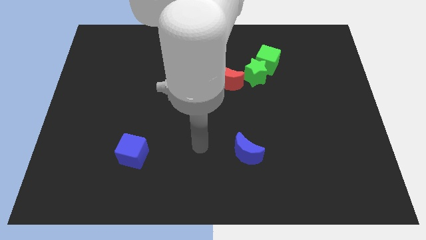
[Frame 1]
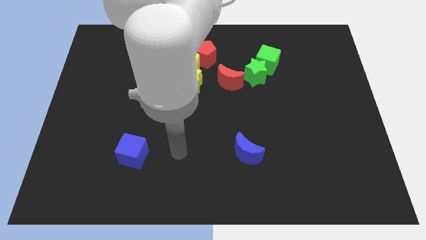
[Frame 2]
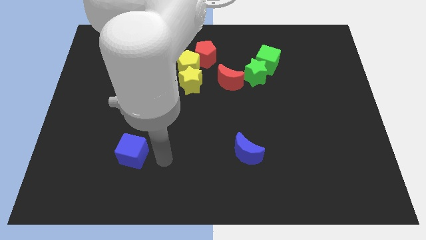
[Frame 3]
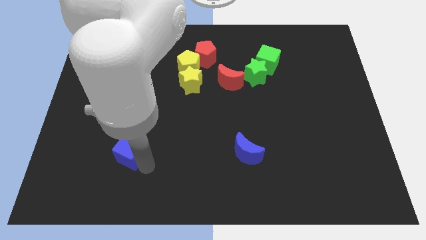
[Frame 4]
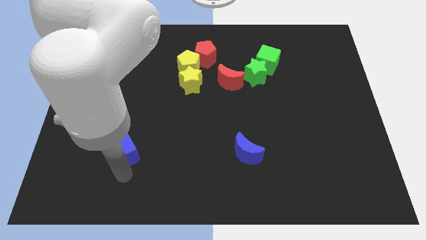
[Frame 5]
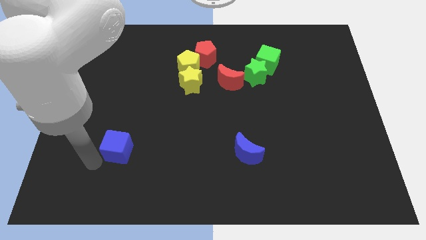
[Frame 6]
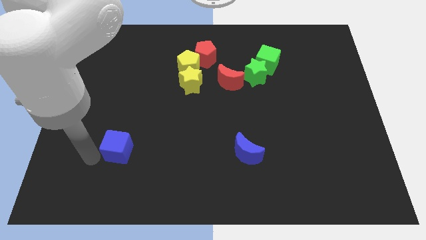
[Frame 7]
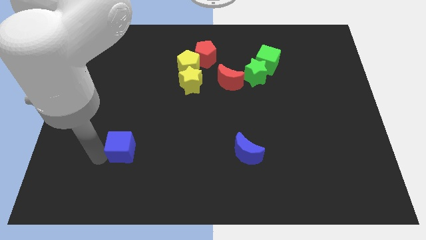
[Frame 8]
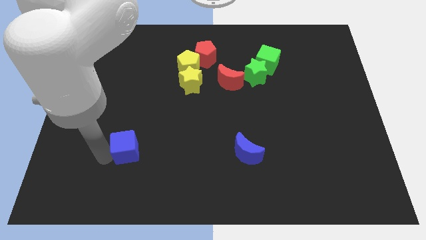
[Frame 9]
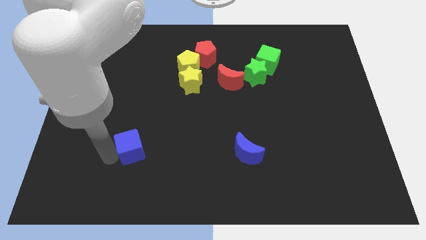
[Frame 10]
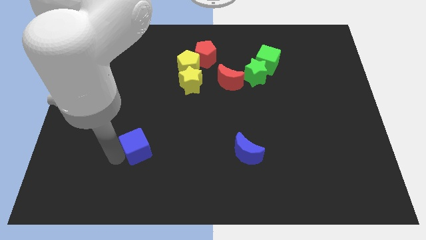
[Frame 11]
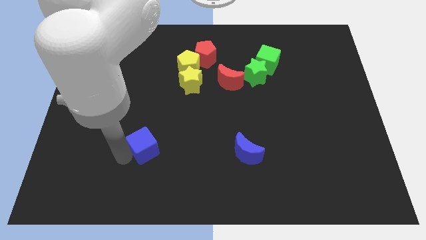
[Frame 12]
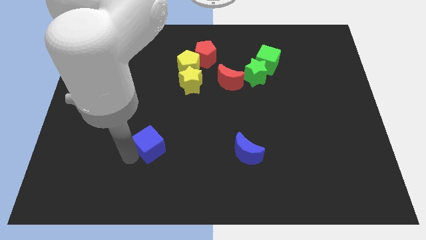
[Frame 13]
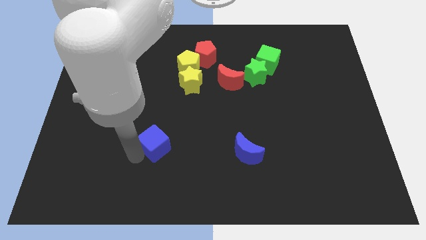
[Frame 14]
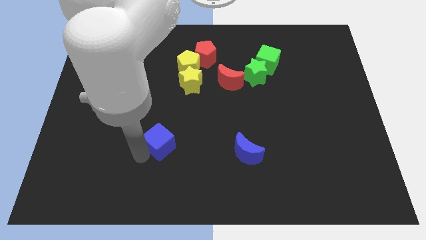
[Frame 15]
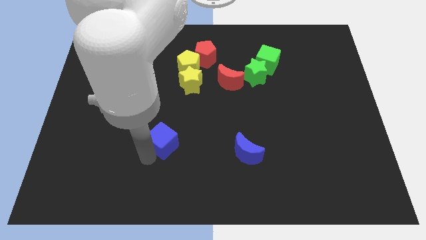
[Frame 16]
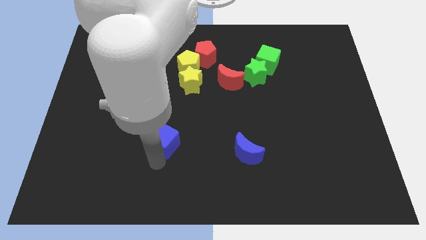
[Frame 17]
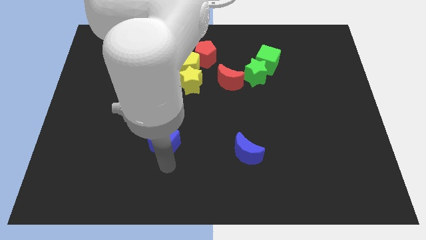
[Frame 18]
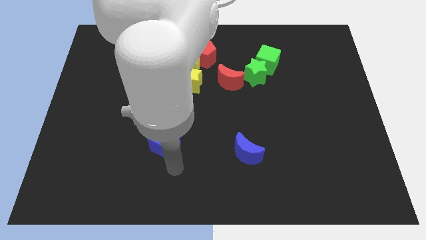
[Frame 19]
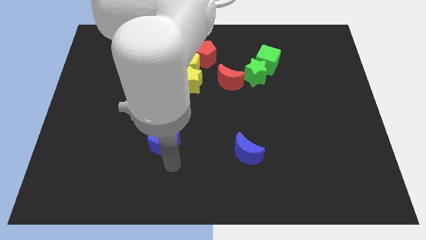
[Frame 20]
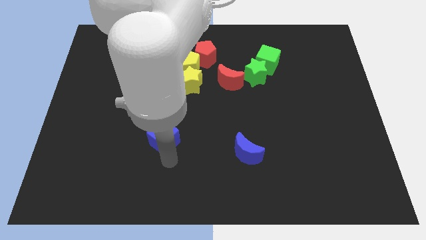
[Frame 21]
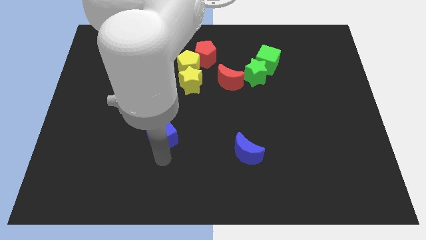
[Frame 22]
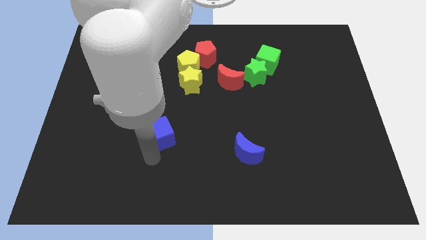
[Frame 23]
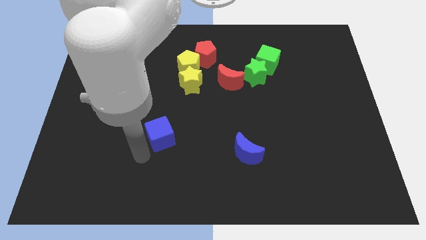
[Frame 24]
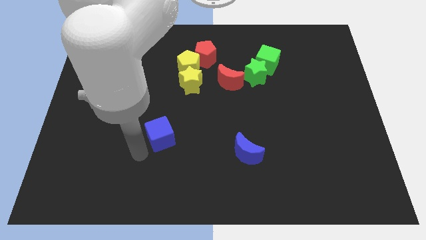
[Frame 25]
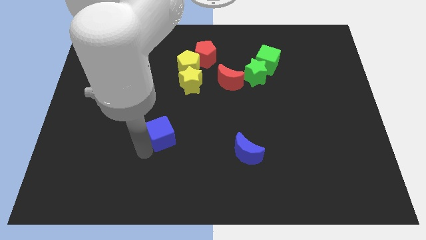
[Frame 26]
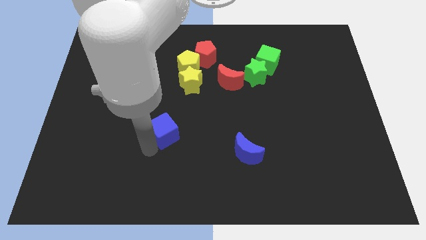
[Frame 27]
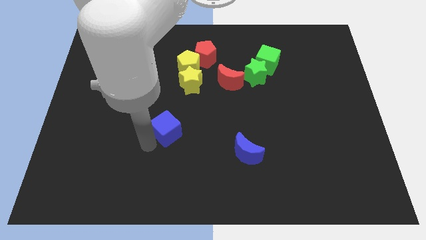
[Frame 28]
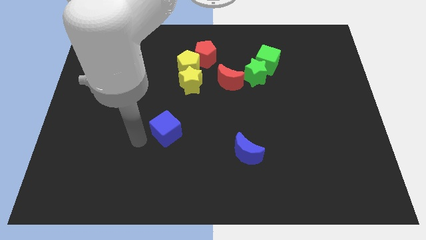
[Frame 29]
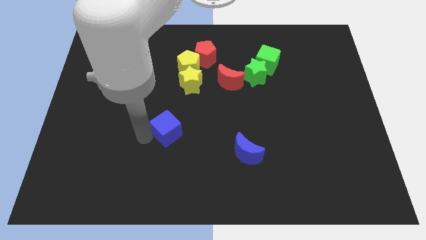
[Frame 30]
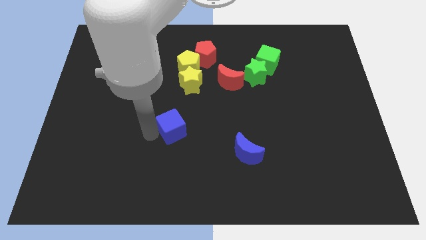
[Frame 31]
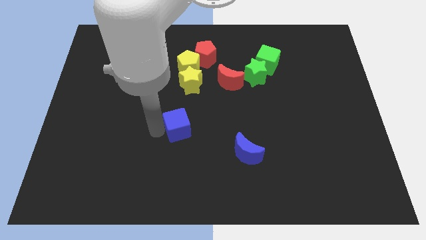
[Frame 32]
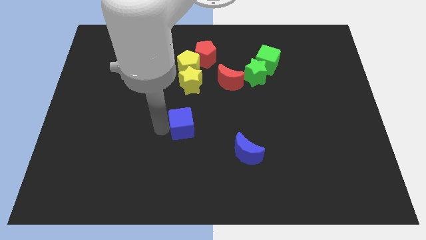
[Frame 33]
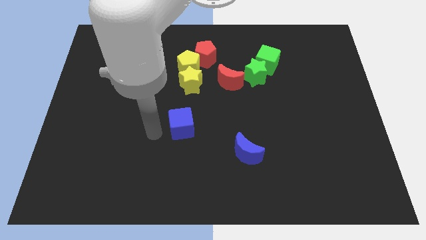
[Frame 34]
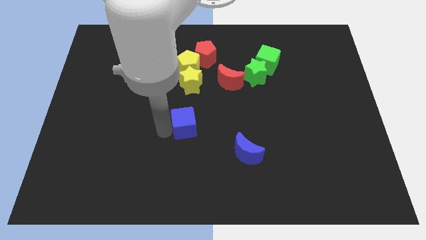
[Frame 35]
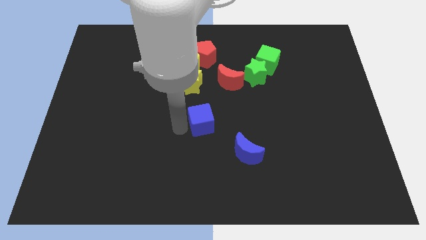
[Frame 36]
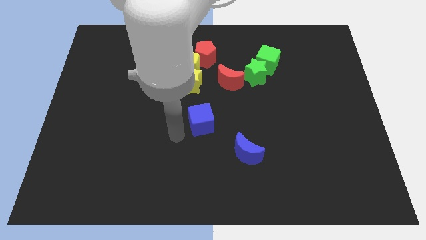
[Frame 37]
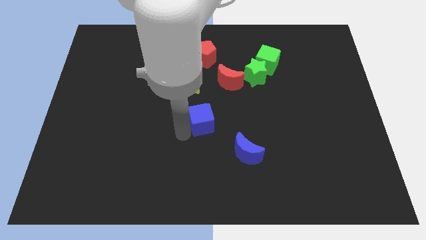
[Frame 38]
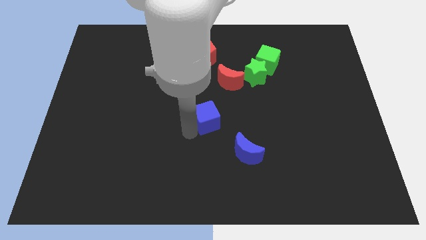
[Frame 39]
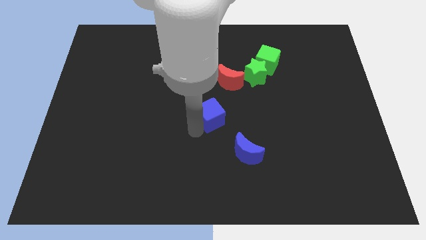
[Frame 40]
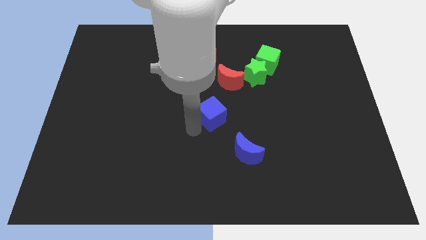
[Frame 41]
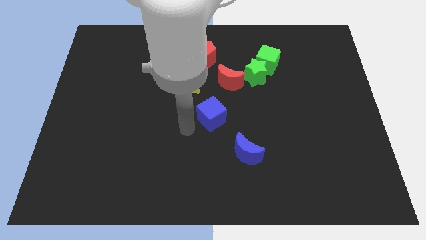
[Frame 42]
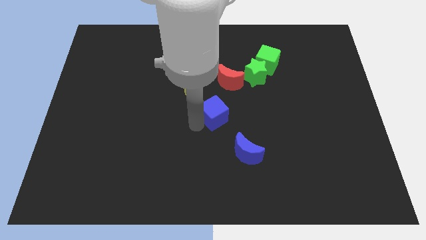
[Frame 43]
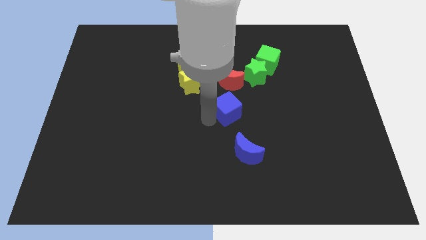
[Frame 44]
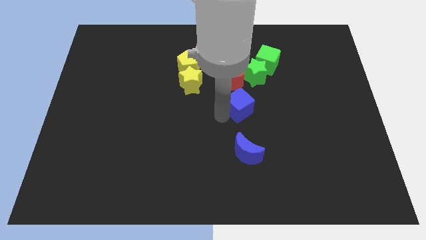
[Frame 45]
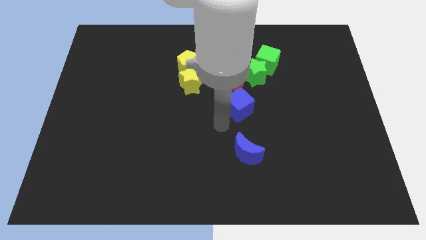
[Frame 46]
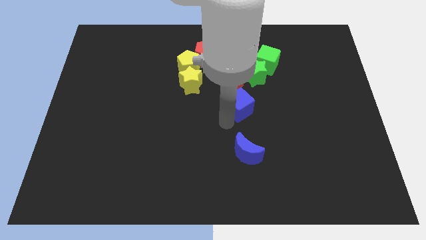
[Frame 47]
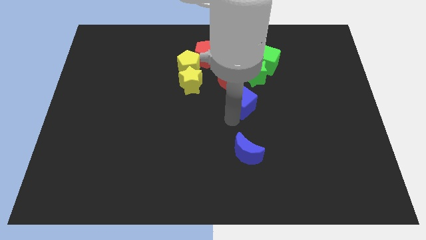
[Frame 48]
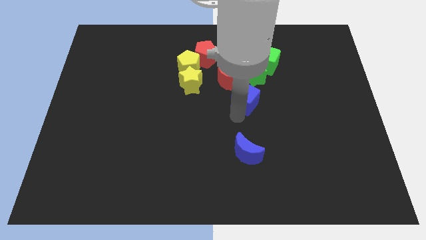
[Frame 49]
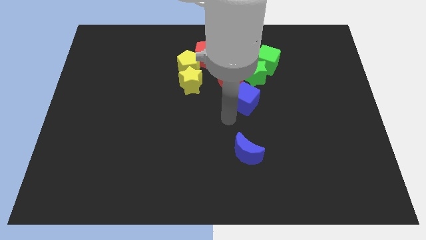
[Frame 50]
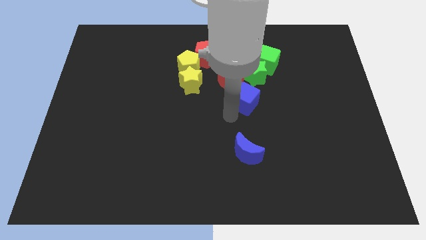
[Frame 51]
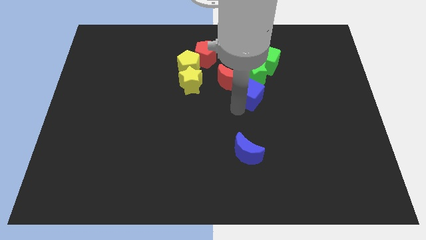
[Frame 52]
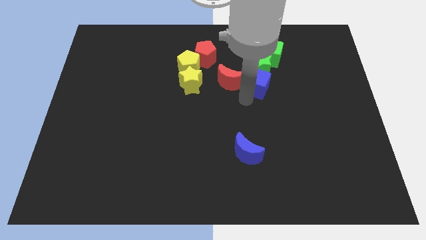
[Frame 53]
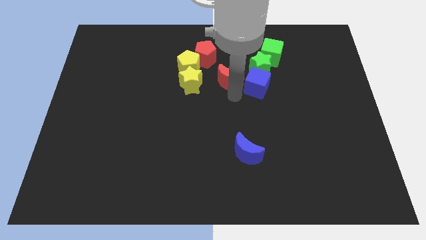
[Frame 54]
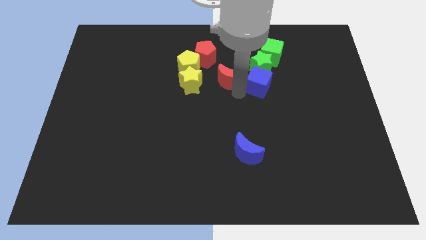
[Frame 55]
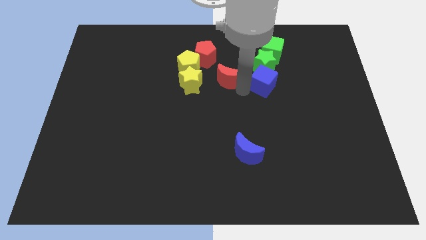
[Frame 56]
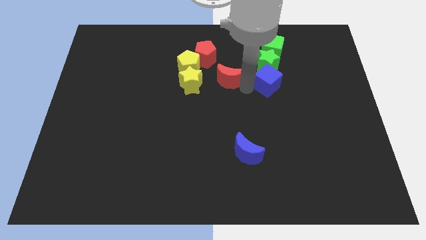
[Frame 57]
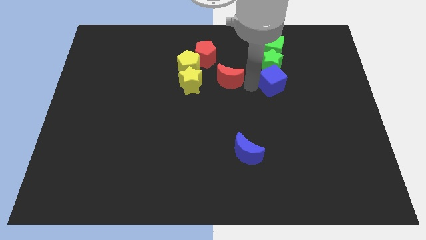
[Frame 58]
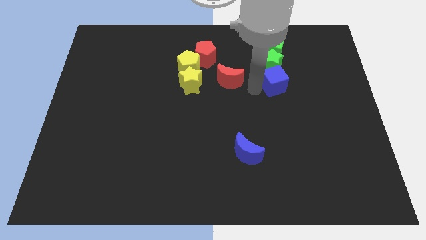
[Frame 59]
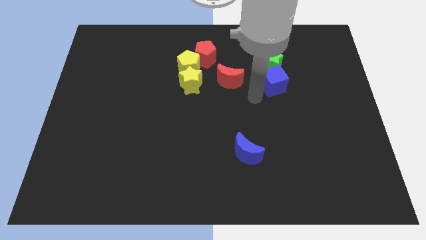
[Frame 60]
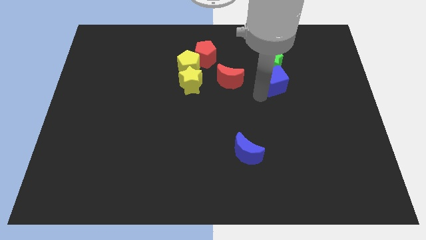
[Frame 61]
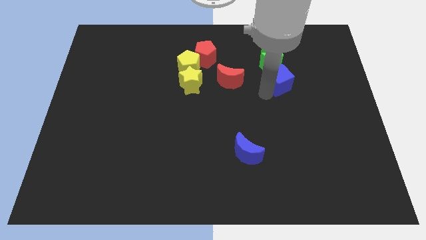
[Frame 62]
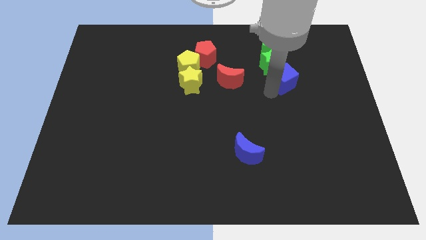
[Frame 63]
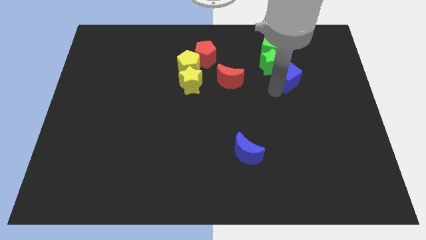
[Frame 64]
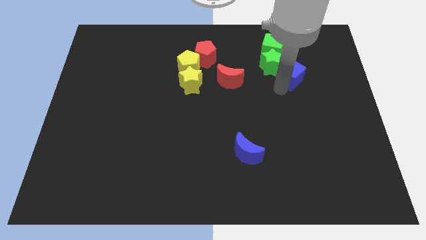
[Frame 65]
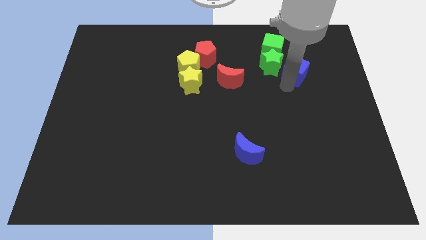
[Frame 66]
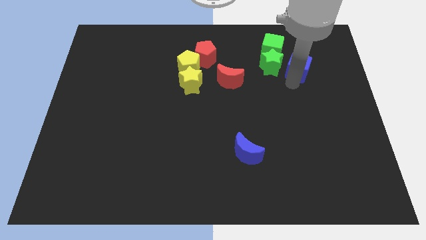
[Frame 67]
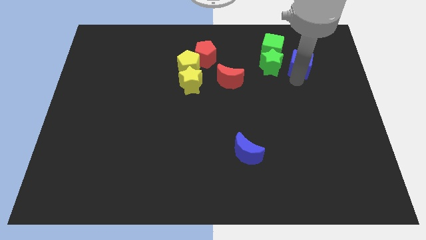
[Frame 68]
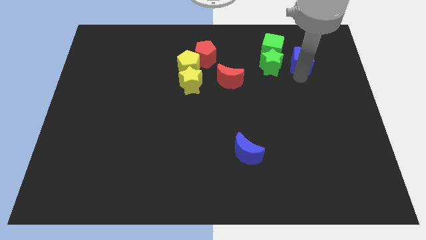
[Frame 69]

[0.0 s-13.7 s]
put the blue cube diagonally up and to the right of the green star
